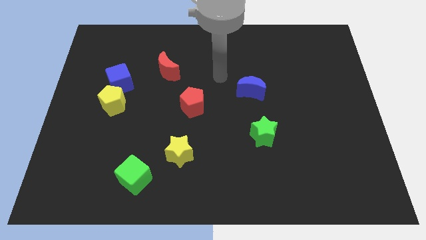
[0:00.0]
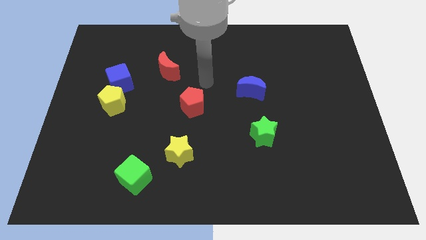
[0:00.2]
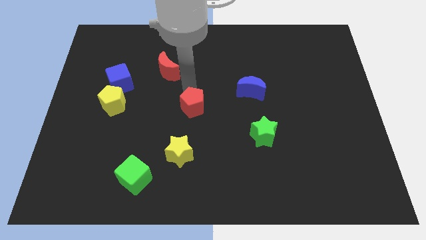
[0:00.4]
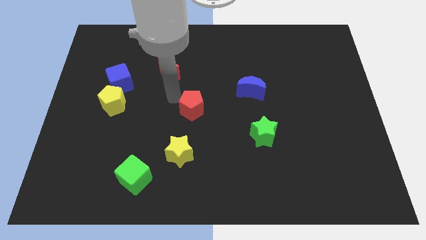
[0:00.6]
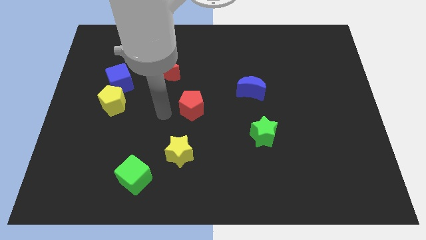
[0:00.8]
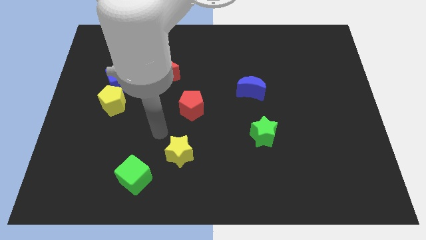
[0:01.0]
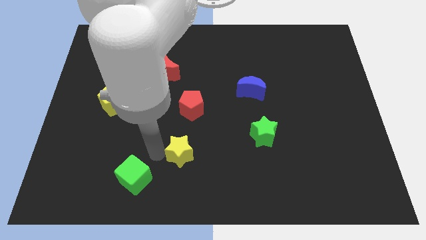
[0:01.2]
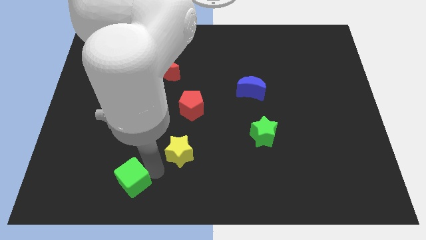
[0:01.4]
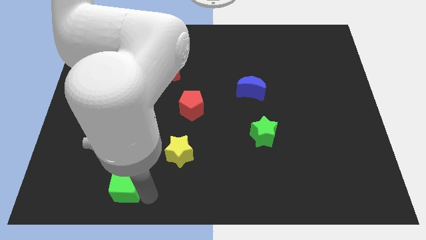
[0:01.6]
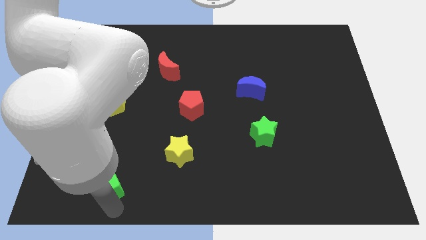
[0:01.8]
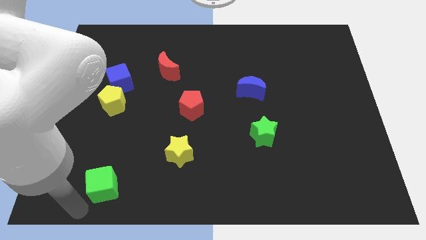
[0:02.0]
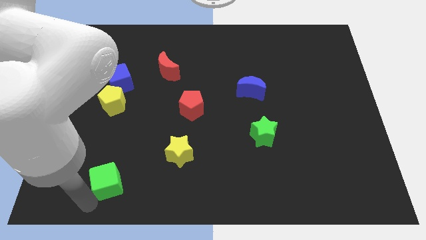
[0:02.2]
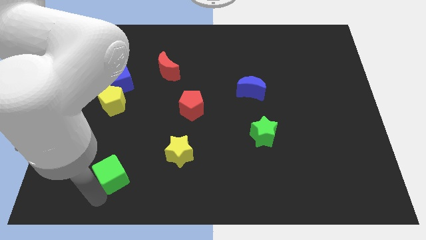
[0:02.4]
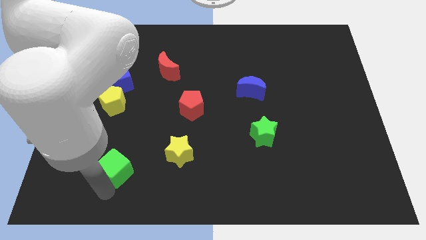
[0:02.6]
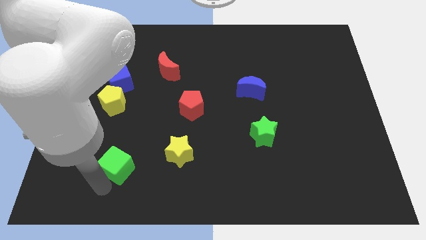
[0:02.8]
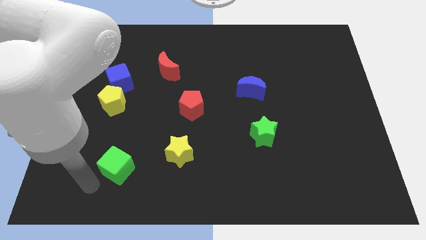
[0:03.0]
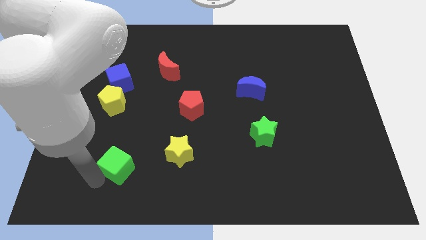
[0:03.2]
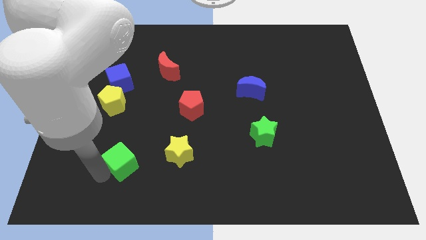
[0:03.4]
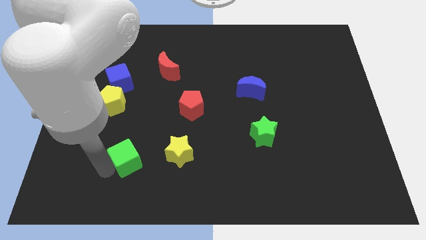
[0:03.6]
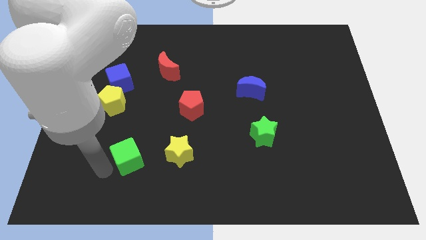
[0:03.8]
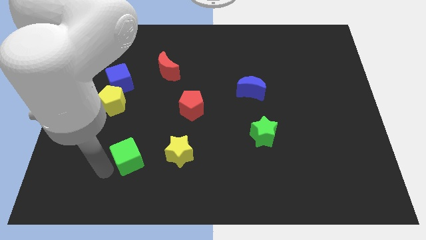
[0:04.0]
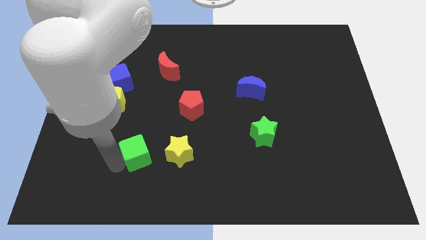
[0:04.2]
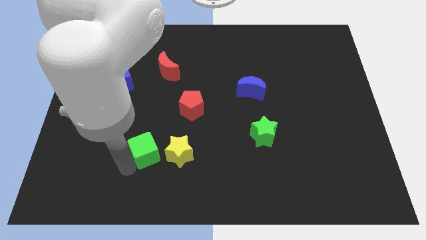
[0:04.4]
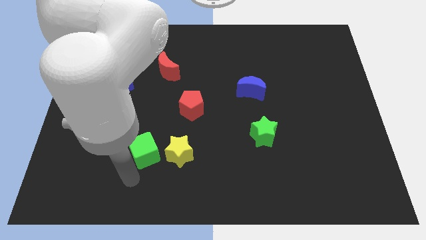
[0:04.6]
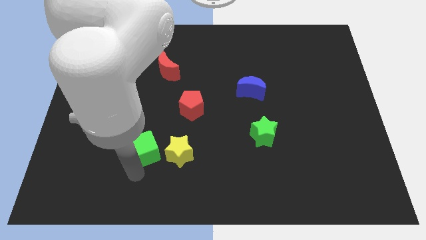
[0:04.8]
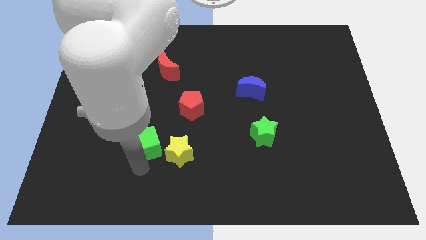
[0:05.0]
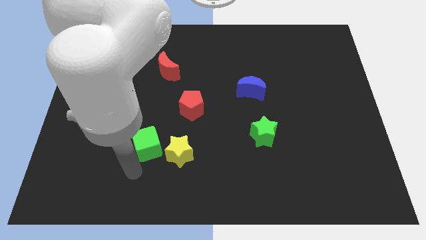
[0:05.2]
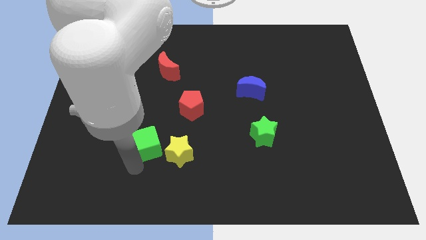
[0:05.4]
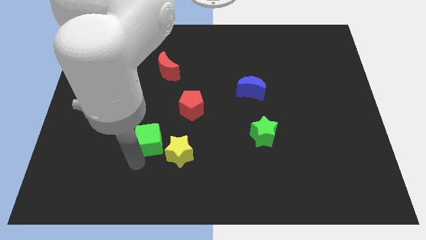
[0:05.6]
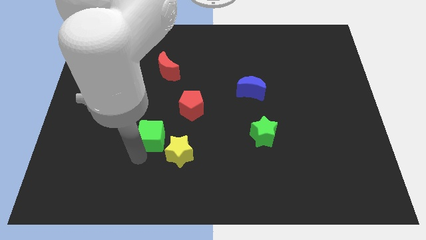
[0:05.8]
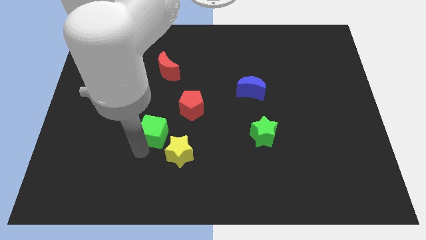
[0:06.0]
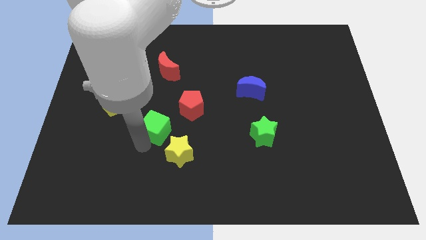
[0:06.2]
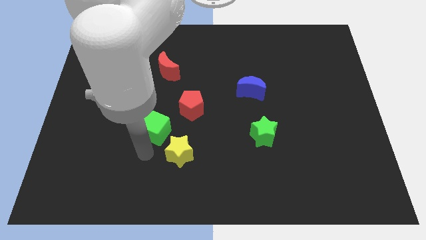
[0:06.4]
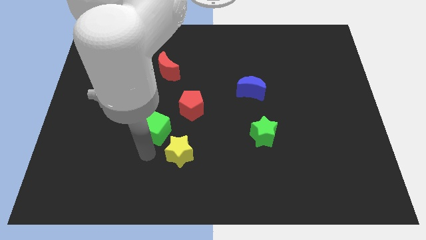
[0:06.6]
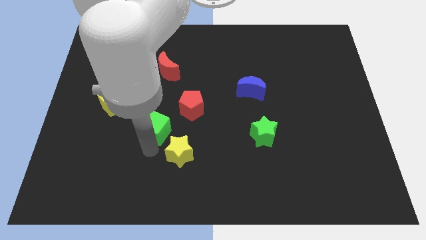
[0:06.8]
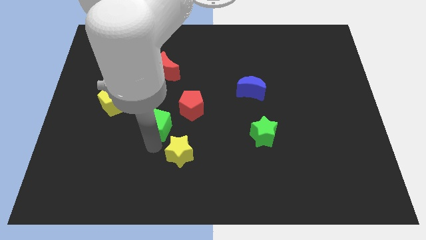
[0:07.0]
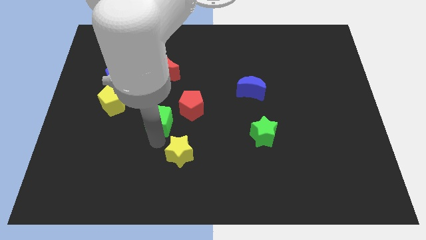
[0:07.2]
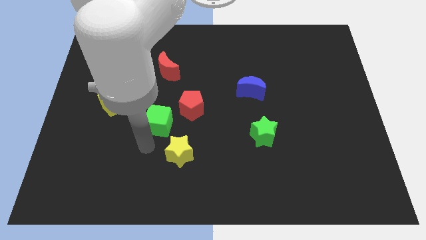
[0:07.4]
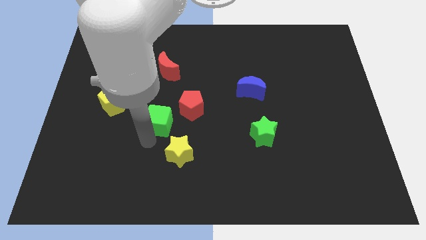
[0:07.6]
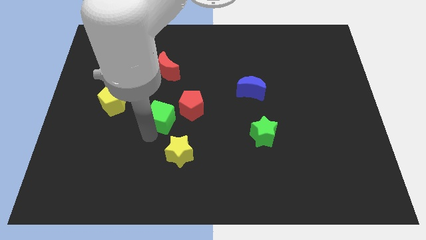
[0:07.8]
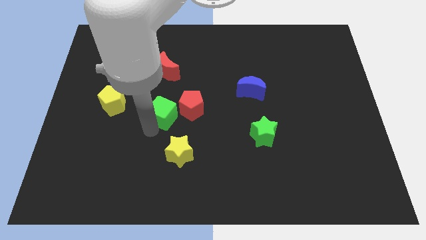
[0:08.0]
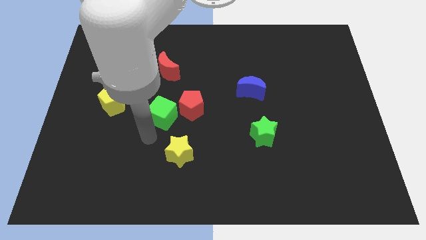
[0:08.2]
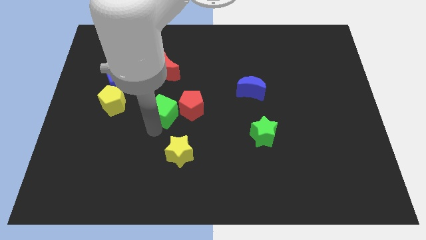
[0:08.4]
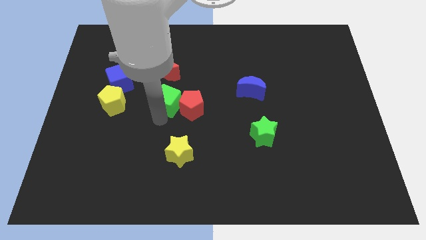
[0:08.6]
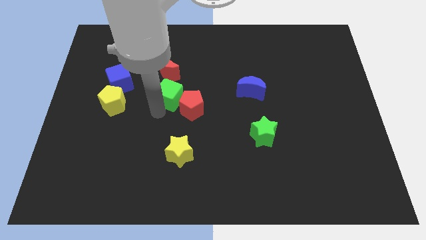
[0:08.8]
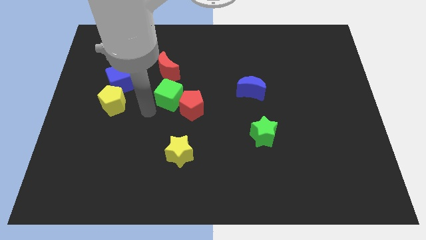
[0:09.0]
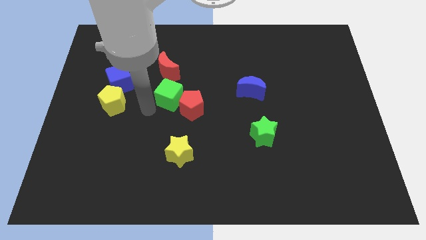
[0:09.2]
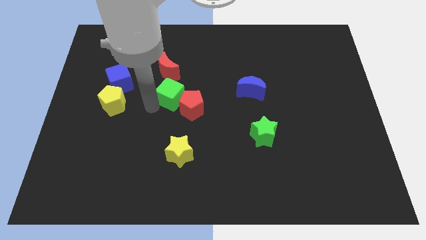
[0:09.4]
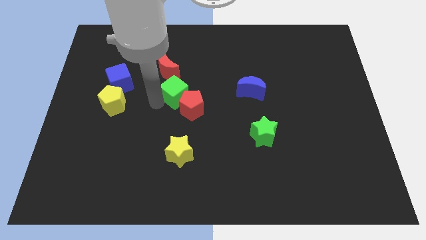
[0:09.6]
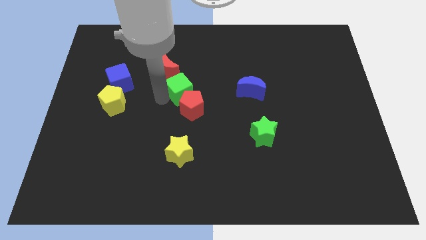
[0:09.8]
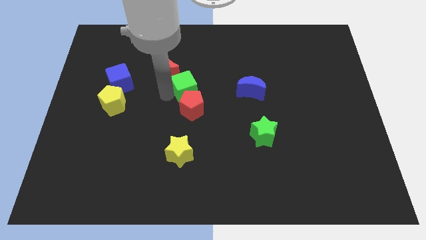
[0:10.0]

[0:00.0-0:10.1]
slide the green cube just left of the blue moon

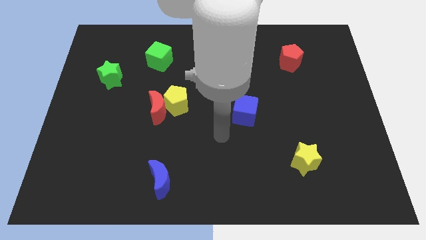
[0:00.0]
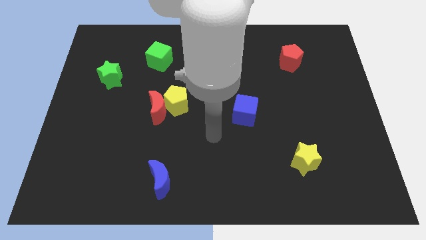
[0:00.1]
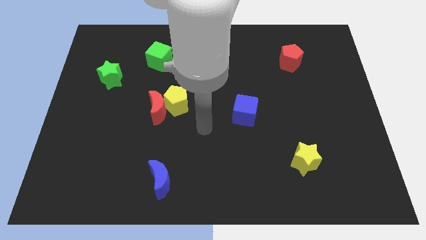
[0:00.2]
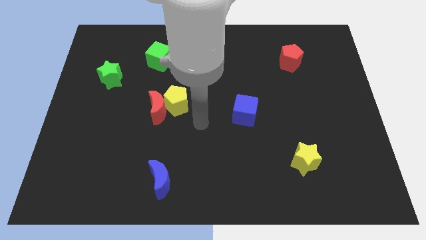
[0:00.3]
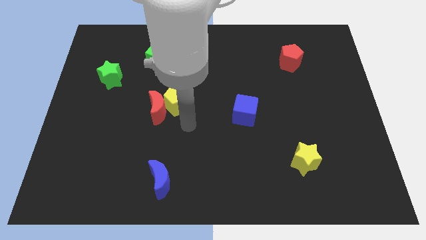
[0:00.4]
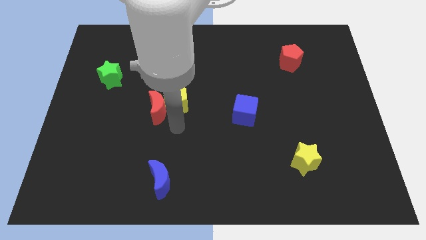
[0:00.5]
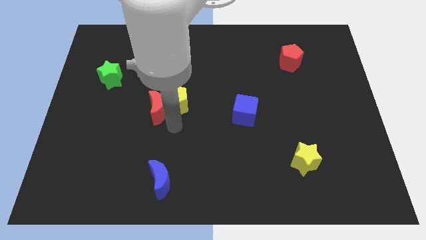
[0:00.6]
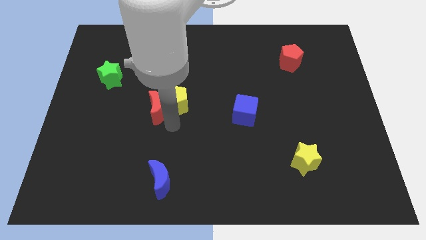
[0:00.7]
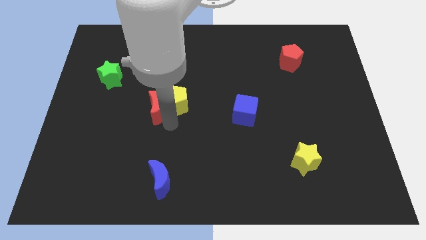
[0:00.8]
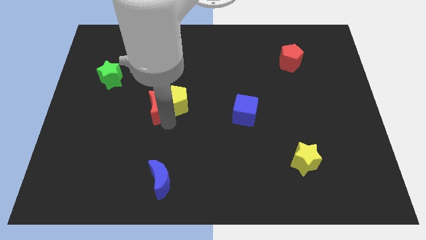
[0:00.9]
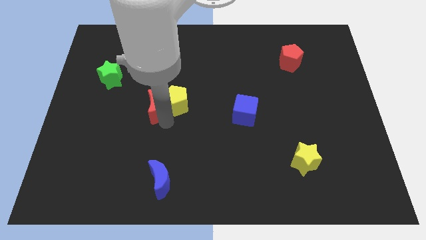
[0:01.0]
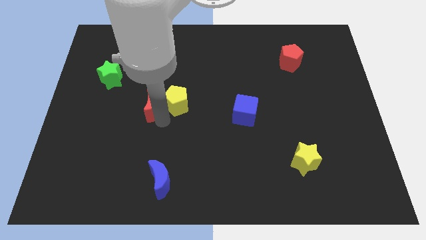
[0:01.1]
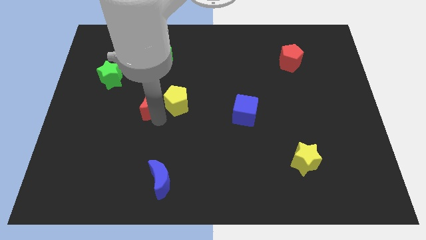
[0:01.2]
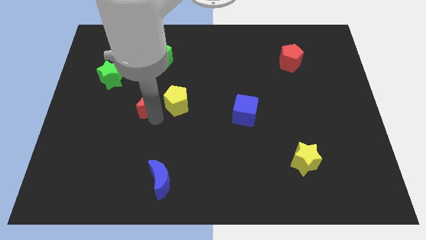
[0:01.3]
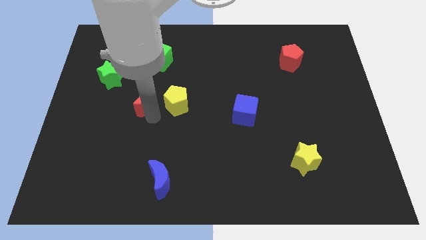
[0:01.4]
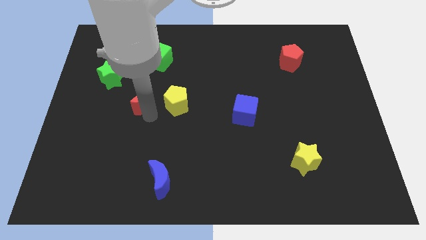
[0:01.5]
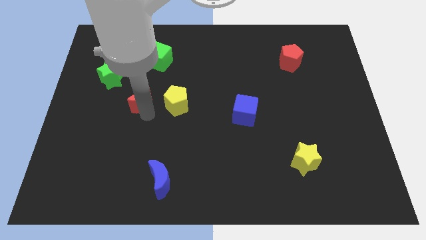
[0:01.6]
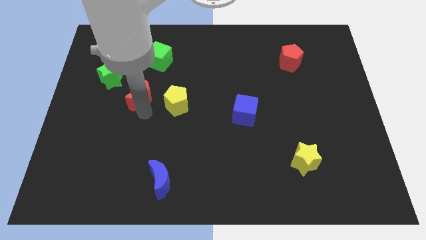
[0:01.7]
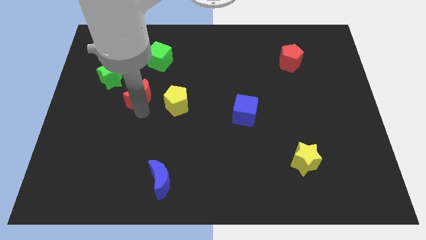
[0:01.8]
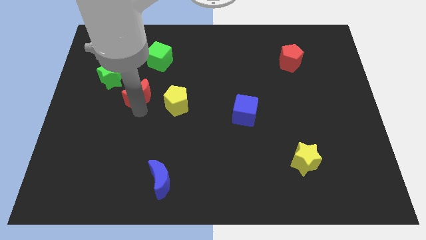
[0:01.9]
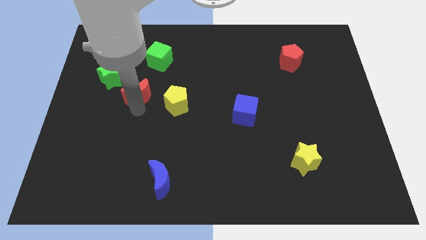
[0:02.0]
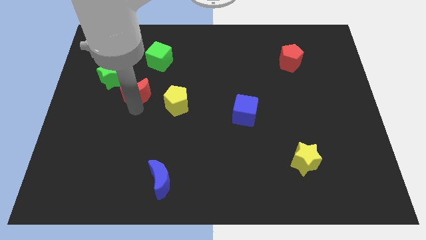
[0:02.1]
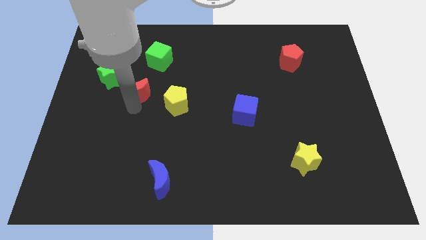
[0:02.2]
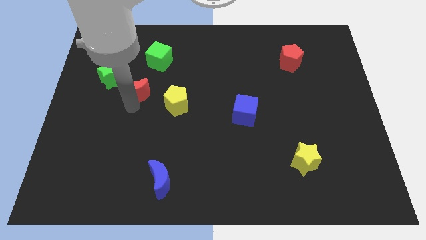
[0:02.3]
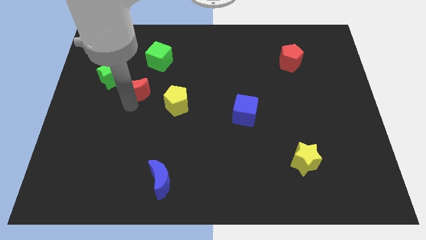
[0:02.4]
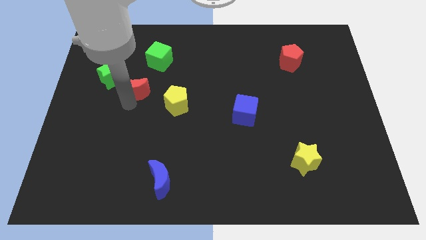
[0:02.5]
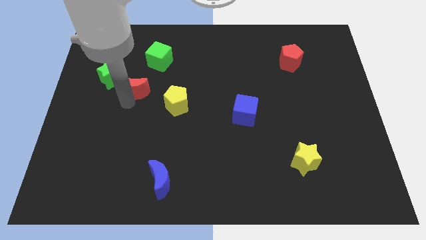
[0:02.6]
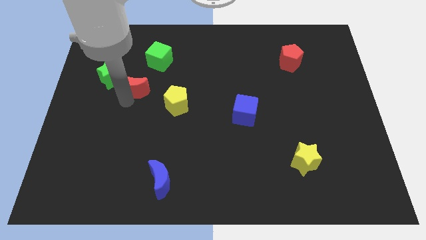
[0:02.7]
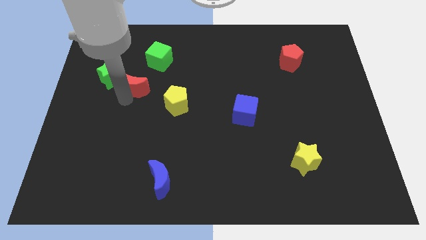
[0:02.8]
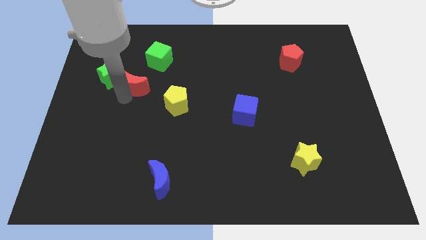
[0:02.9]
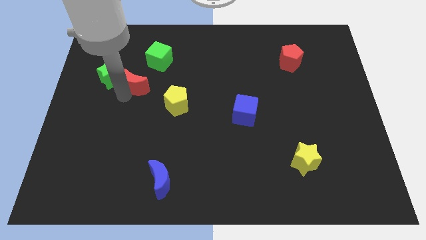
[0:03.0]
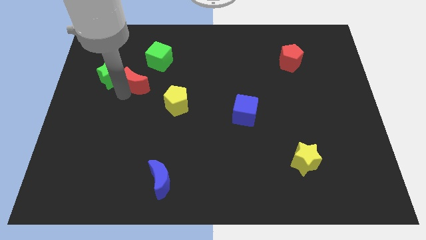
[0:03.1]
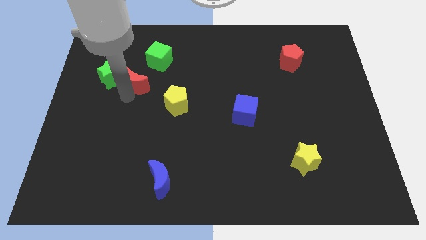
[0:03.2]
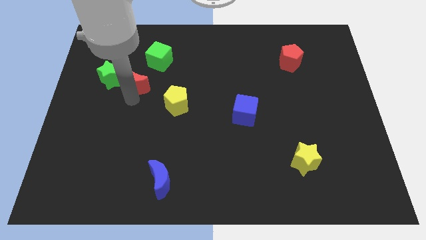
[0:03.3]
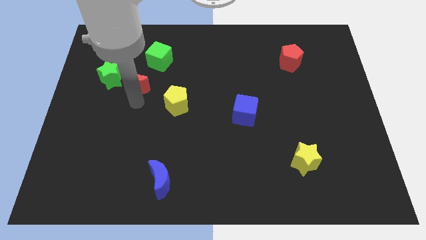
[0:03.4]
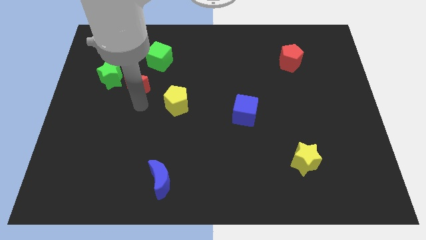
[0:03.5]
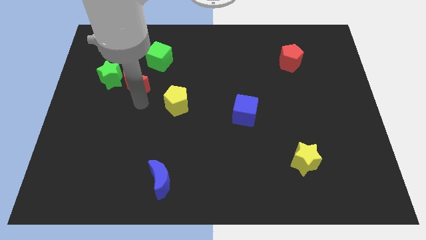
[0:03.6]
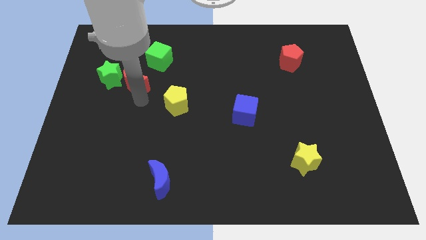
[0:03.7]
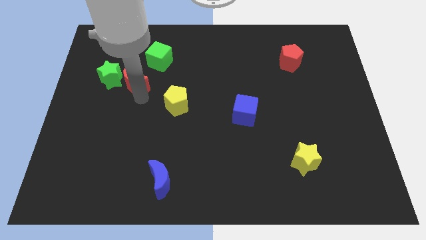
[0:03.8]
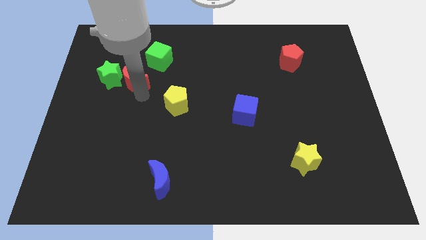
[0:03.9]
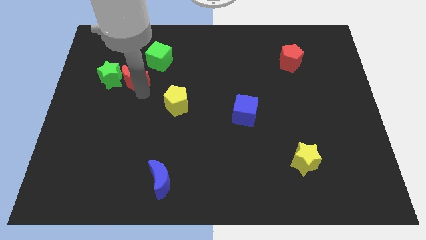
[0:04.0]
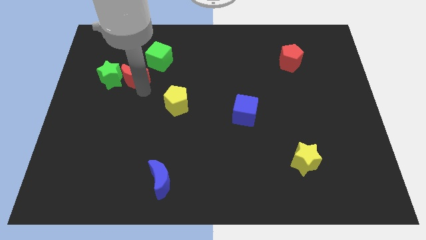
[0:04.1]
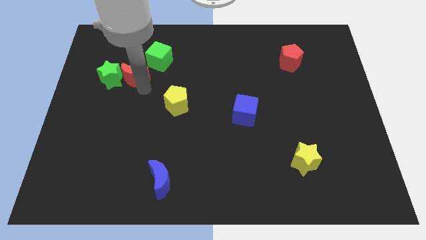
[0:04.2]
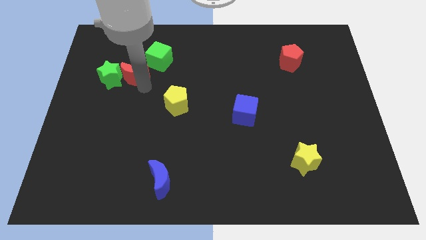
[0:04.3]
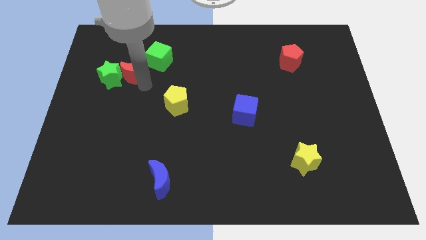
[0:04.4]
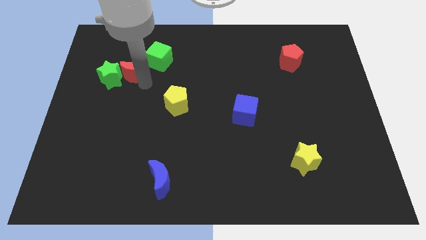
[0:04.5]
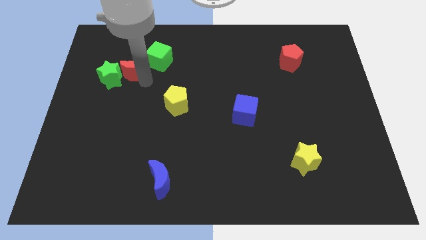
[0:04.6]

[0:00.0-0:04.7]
put the red moon to the left of the green cube
